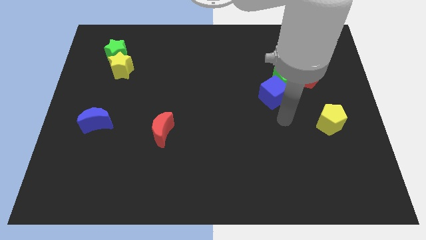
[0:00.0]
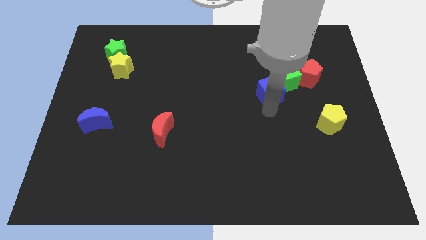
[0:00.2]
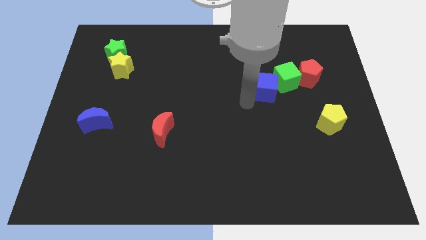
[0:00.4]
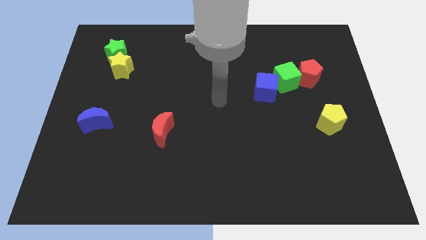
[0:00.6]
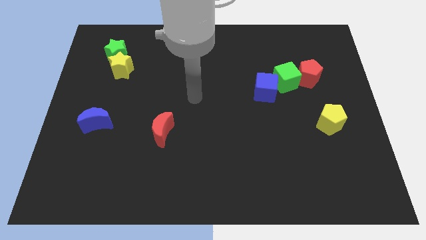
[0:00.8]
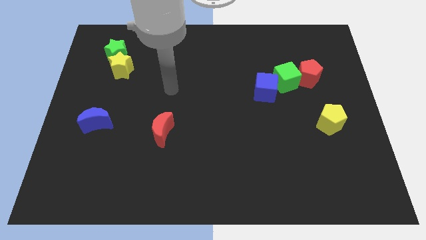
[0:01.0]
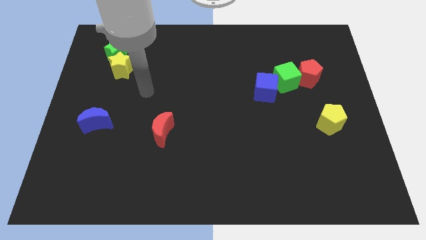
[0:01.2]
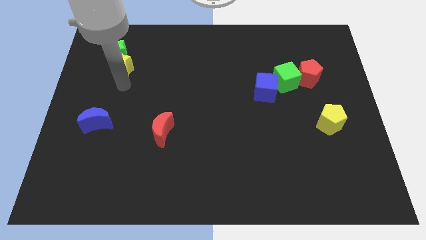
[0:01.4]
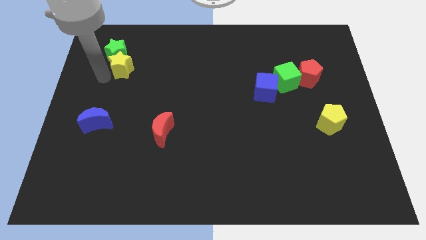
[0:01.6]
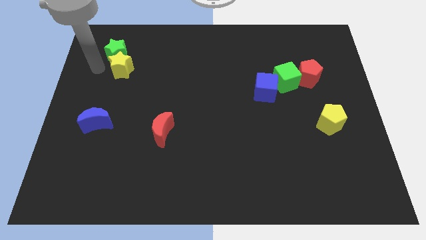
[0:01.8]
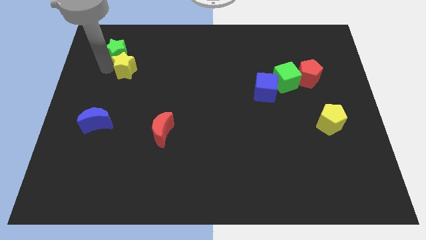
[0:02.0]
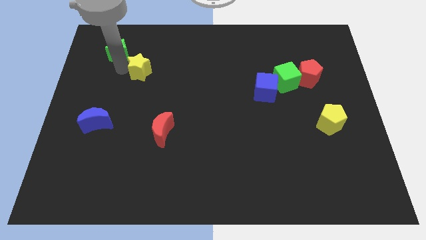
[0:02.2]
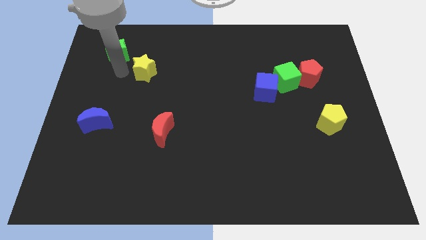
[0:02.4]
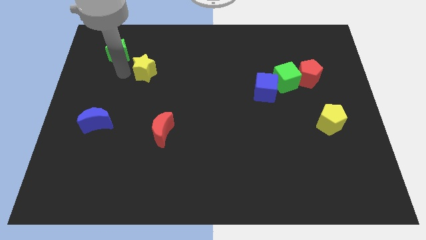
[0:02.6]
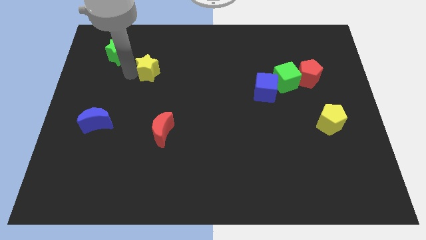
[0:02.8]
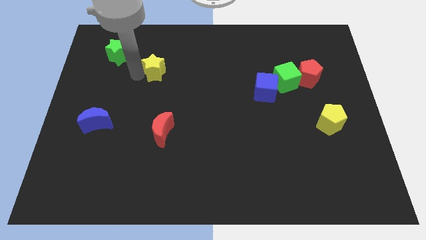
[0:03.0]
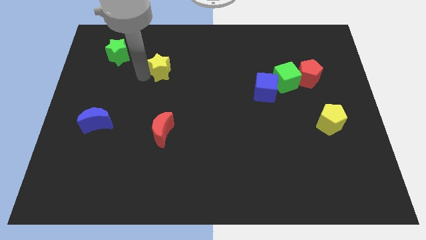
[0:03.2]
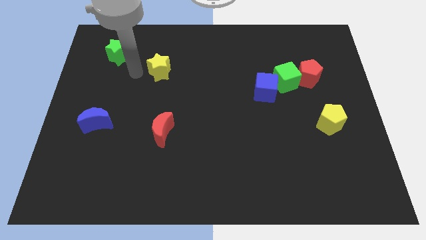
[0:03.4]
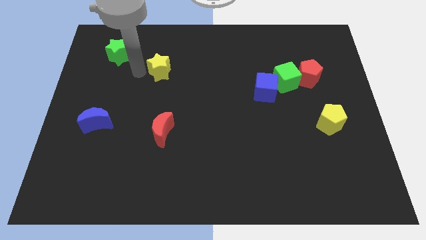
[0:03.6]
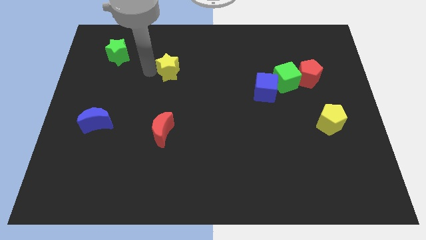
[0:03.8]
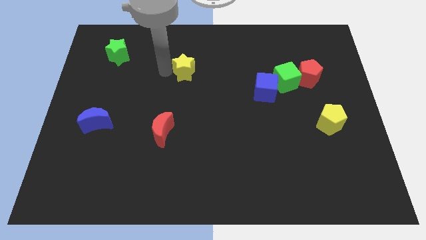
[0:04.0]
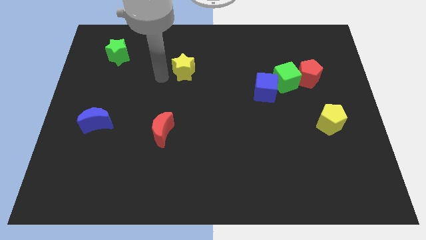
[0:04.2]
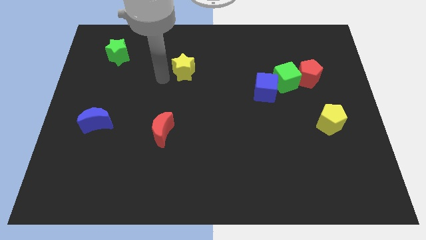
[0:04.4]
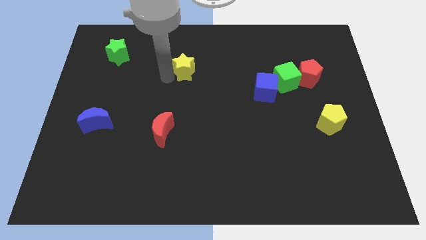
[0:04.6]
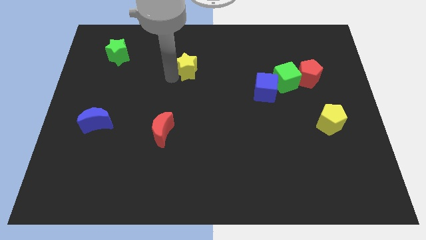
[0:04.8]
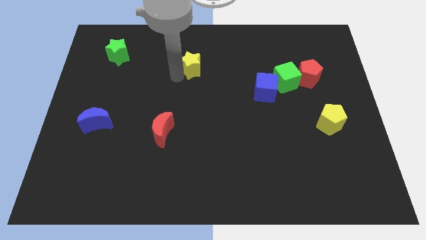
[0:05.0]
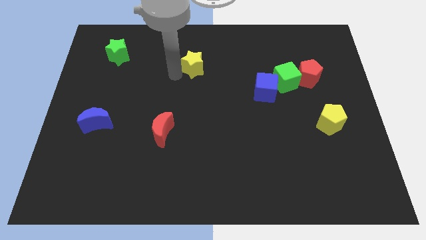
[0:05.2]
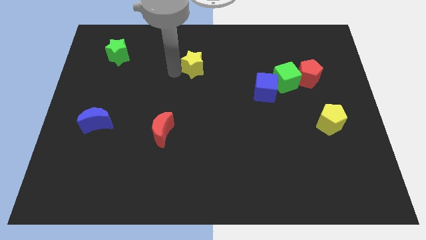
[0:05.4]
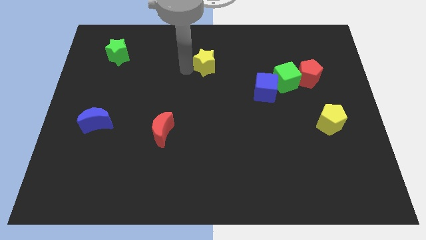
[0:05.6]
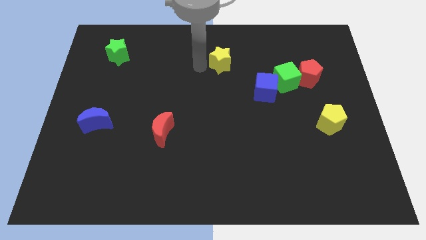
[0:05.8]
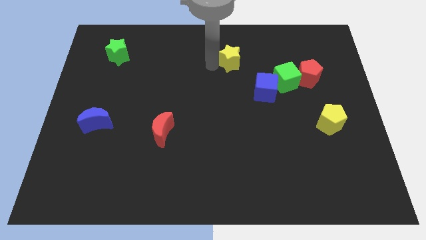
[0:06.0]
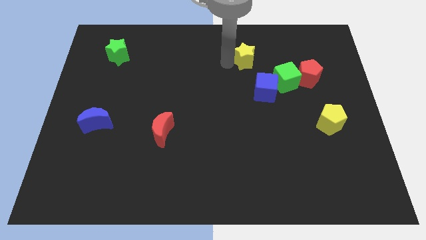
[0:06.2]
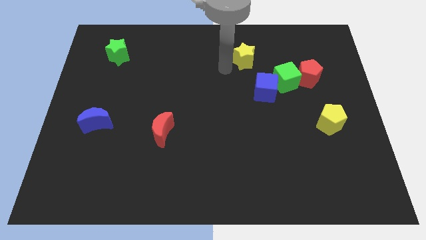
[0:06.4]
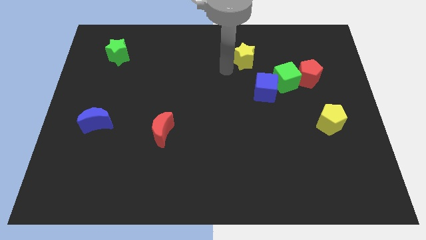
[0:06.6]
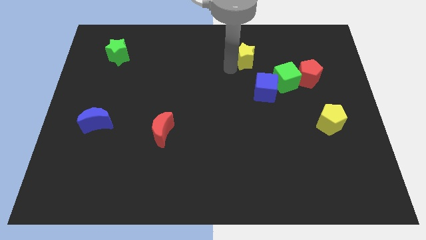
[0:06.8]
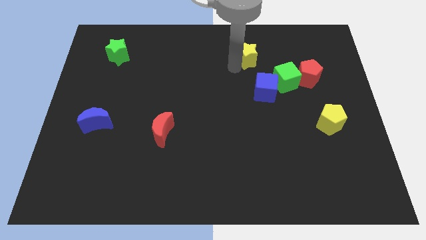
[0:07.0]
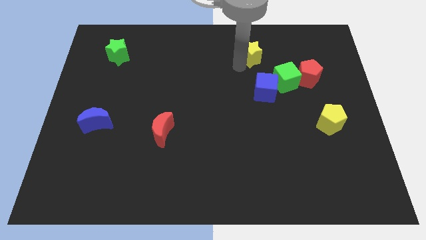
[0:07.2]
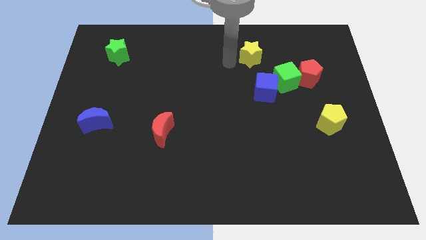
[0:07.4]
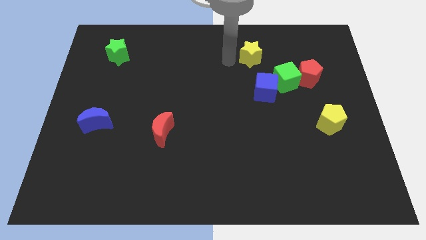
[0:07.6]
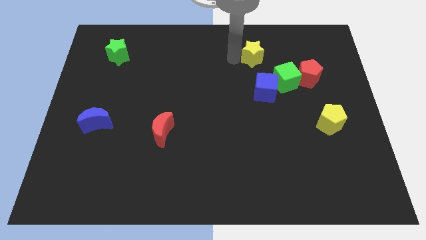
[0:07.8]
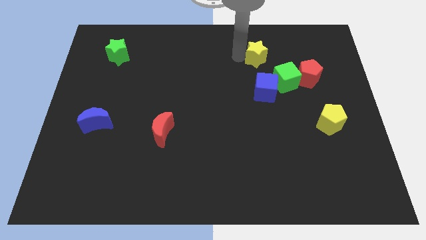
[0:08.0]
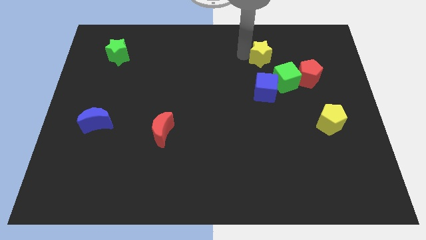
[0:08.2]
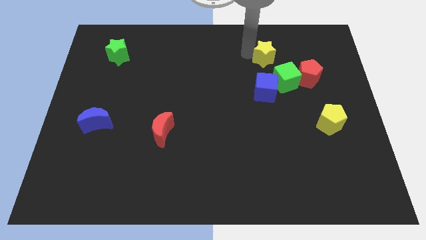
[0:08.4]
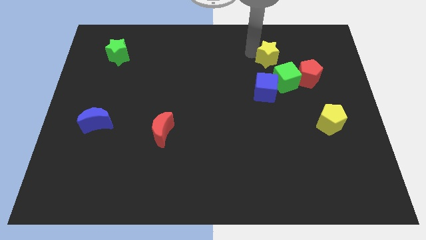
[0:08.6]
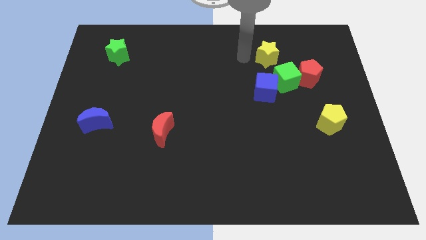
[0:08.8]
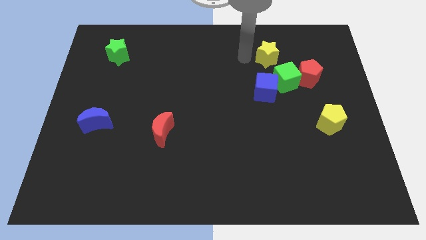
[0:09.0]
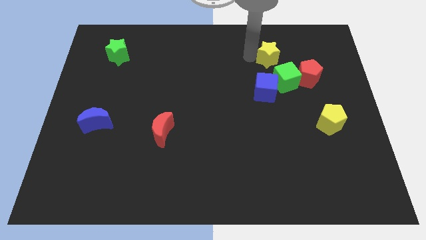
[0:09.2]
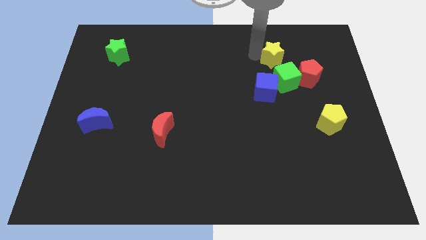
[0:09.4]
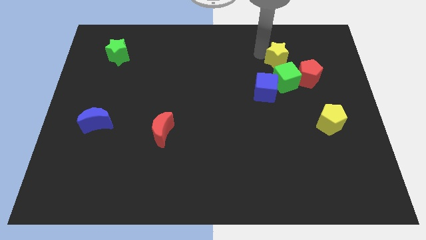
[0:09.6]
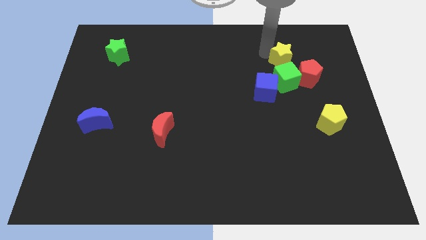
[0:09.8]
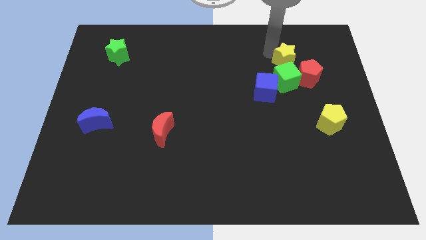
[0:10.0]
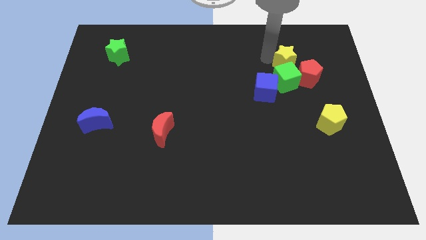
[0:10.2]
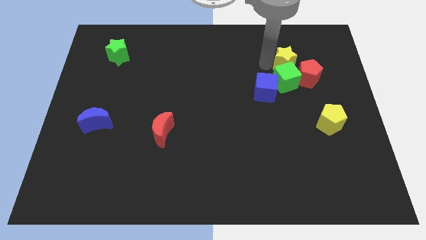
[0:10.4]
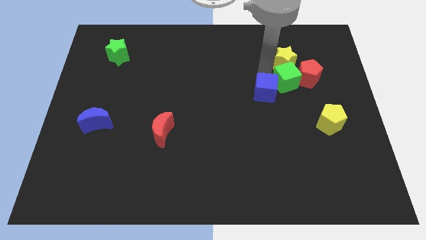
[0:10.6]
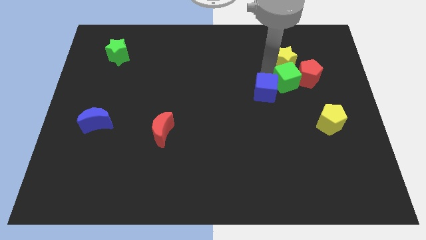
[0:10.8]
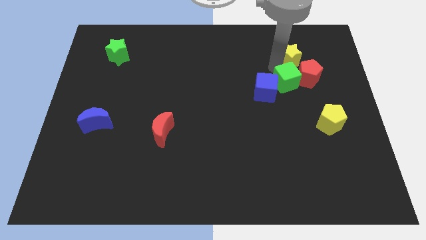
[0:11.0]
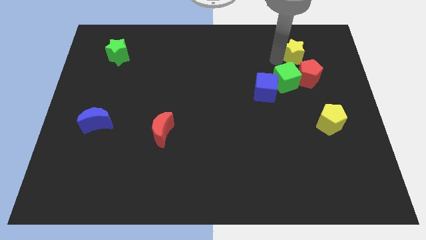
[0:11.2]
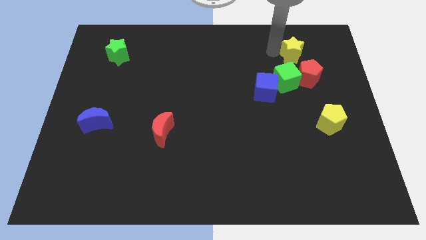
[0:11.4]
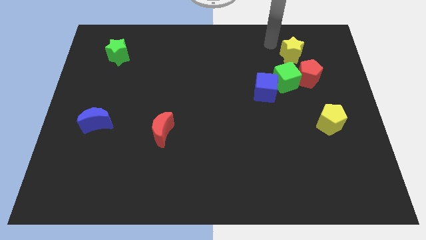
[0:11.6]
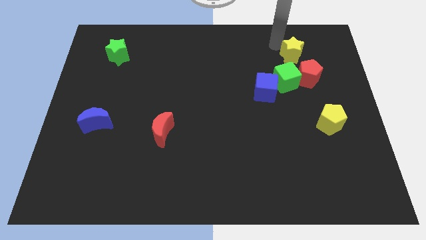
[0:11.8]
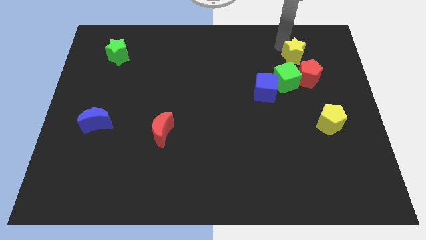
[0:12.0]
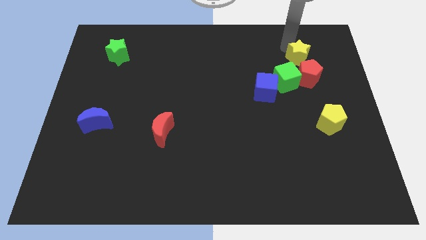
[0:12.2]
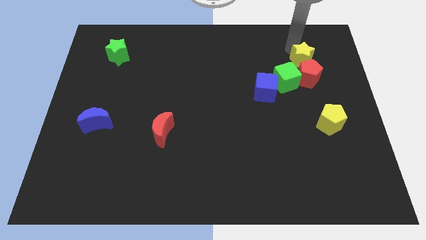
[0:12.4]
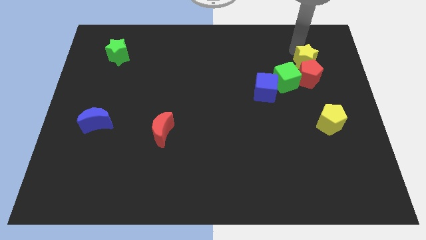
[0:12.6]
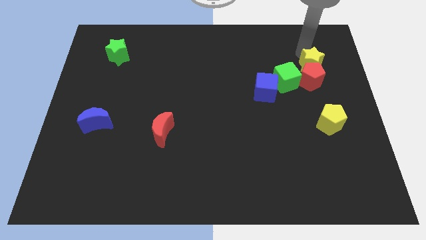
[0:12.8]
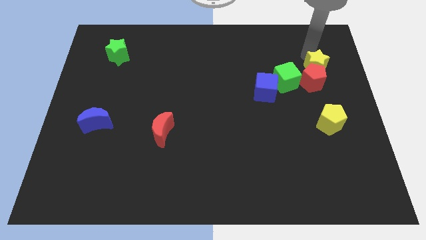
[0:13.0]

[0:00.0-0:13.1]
move the yellow star just right of the green cube

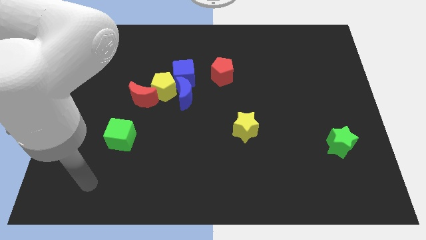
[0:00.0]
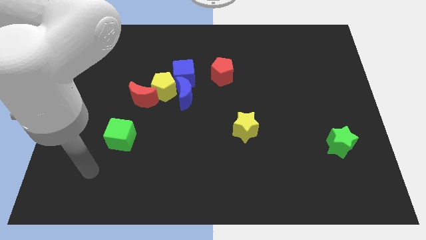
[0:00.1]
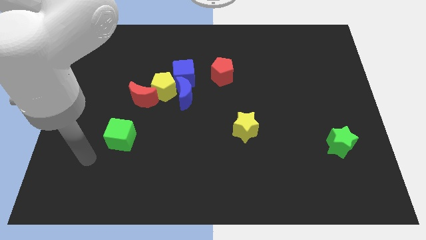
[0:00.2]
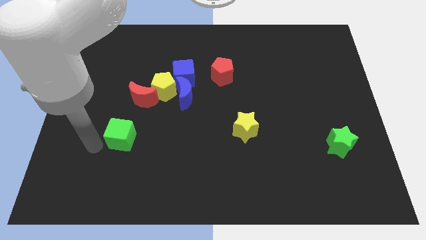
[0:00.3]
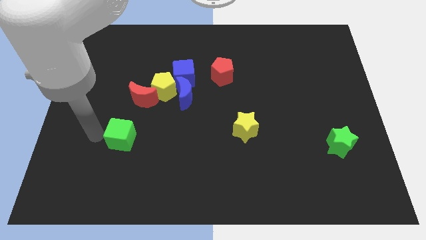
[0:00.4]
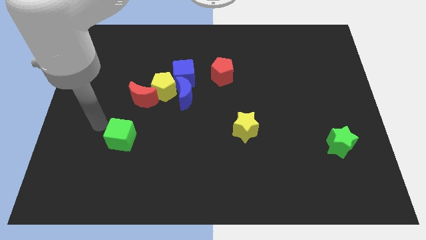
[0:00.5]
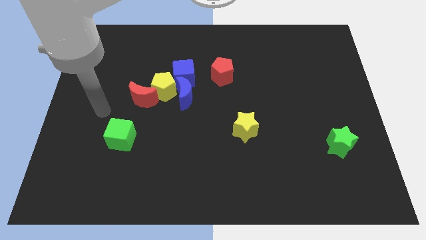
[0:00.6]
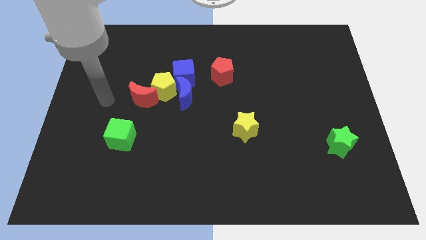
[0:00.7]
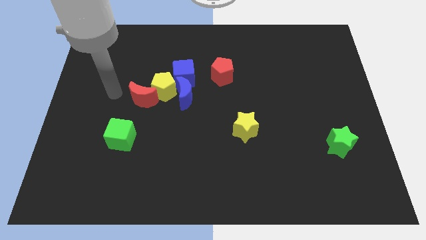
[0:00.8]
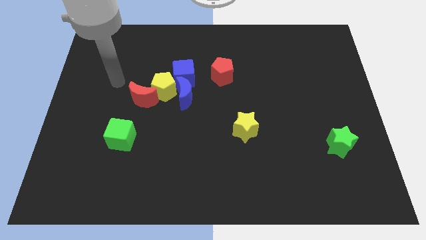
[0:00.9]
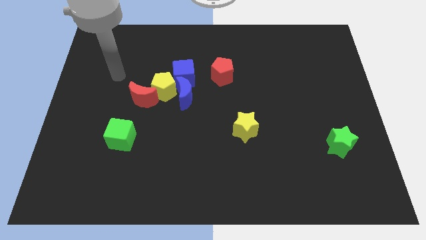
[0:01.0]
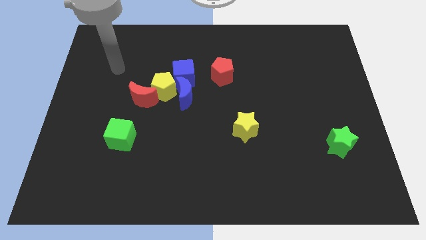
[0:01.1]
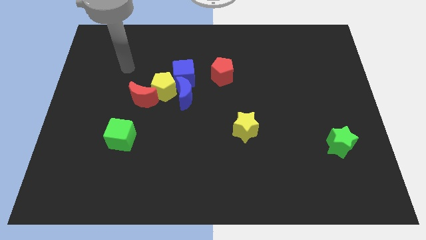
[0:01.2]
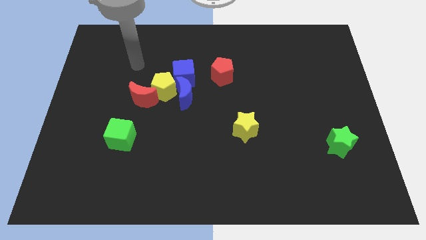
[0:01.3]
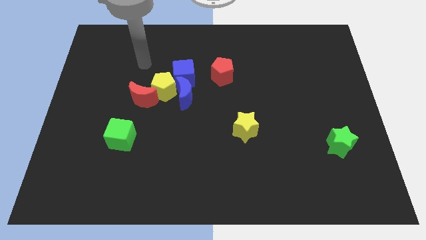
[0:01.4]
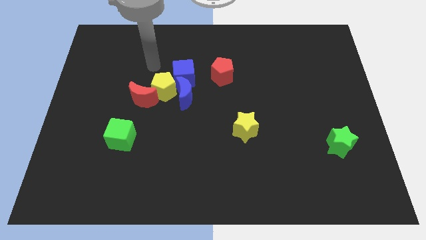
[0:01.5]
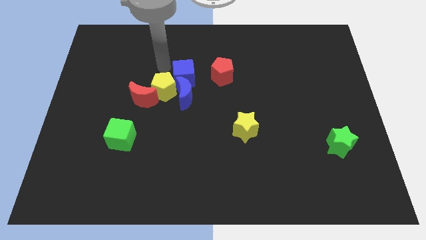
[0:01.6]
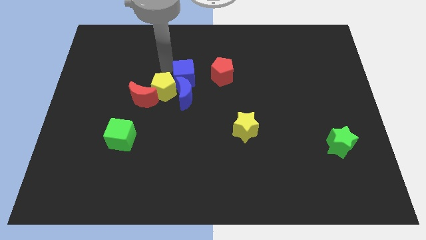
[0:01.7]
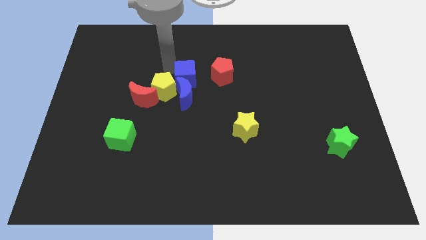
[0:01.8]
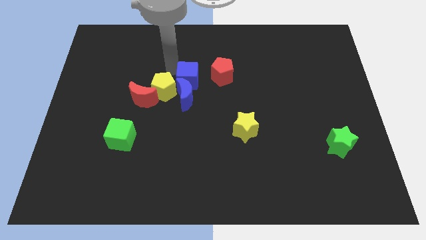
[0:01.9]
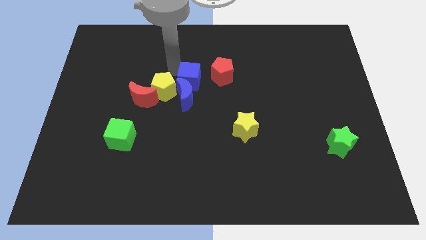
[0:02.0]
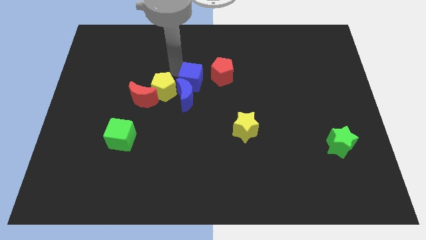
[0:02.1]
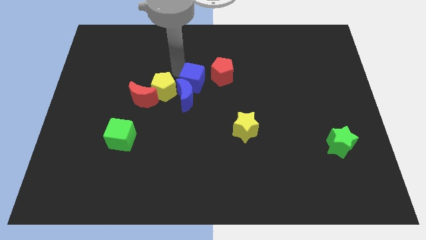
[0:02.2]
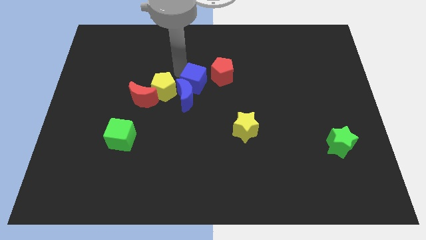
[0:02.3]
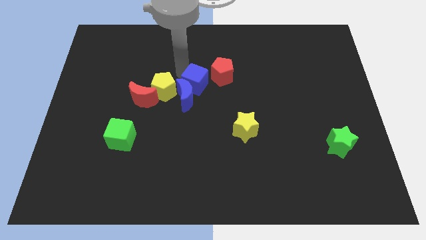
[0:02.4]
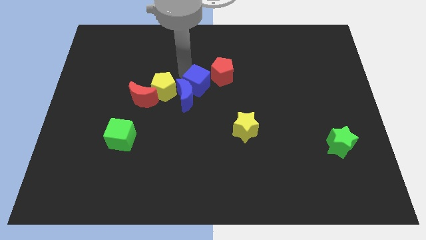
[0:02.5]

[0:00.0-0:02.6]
slide the blue cube just right of the red moon
